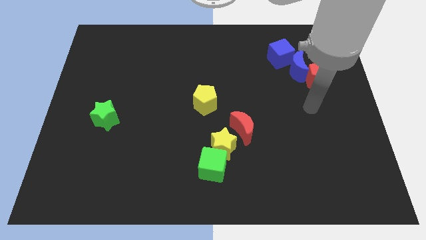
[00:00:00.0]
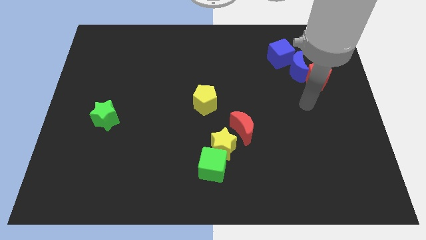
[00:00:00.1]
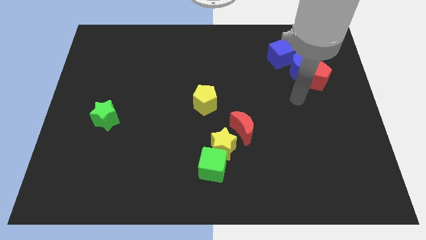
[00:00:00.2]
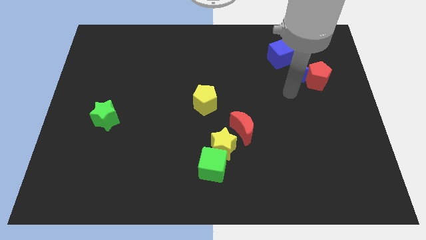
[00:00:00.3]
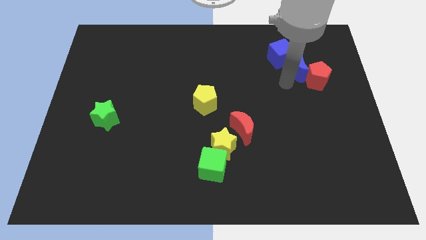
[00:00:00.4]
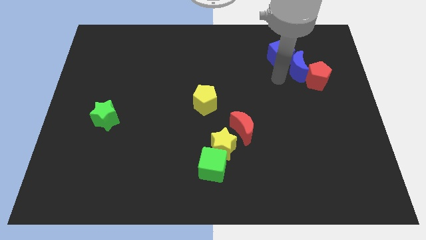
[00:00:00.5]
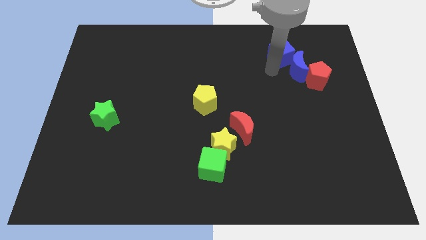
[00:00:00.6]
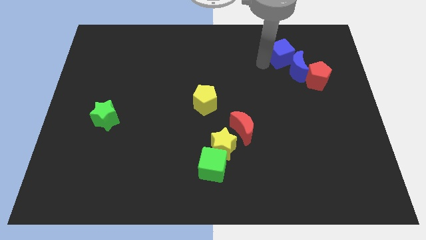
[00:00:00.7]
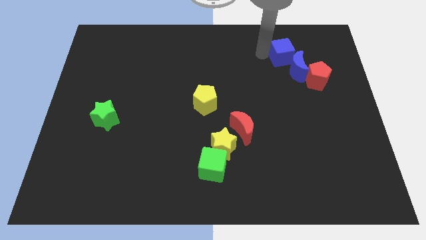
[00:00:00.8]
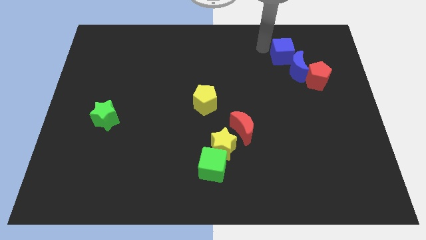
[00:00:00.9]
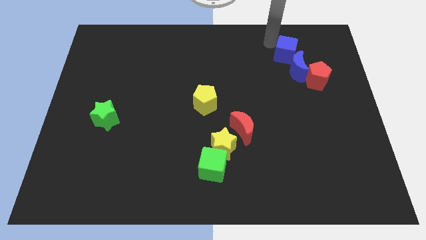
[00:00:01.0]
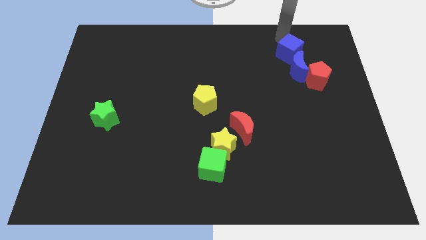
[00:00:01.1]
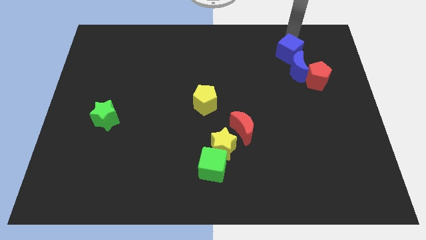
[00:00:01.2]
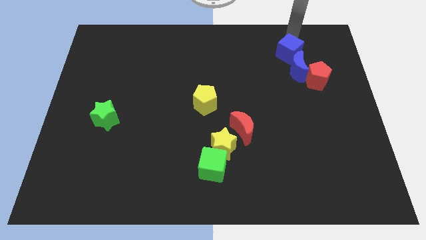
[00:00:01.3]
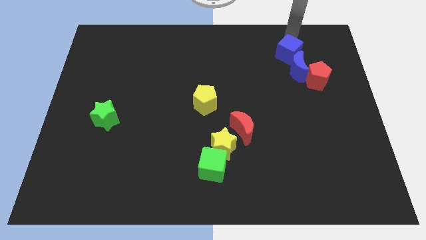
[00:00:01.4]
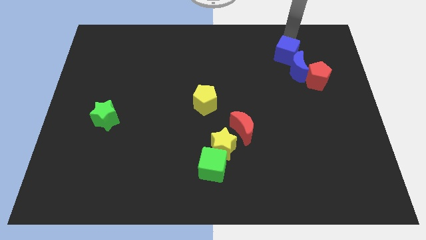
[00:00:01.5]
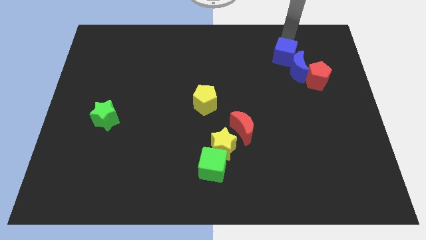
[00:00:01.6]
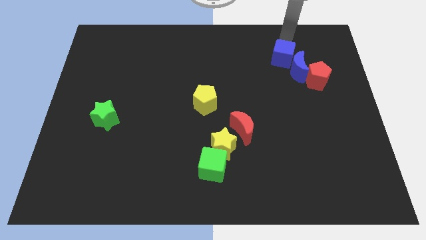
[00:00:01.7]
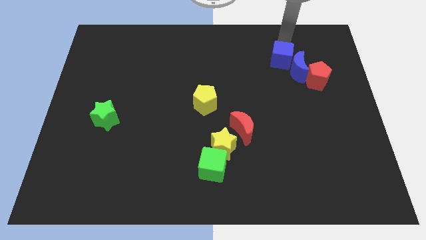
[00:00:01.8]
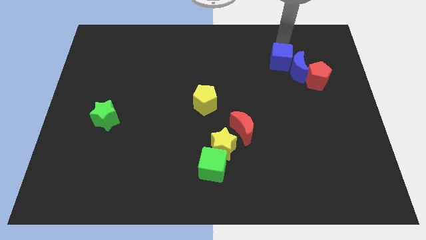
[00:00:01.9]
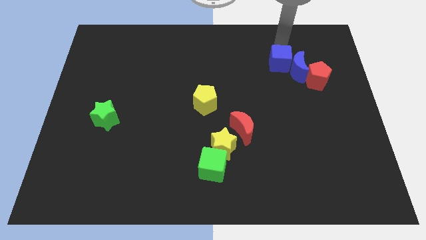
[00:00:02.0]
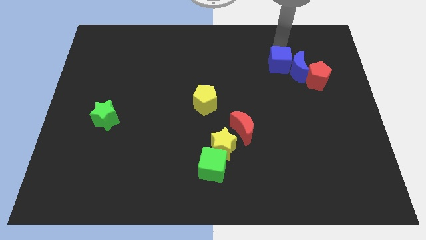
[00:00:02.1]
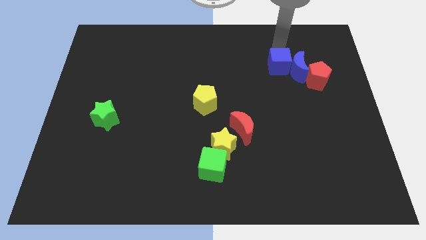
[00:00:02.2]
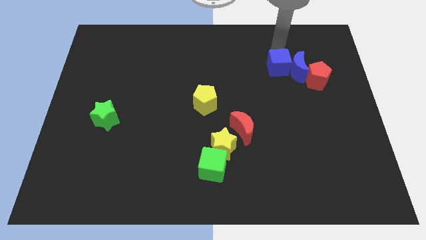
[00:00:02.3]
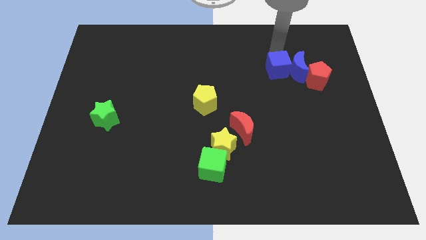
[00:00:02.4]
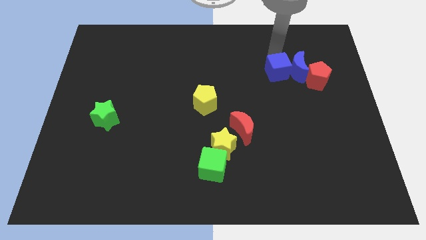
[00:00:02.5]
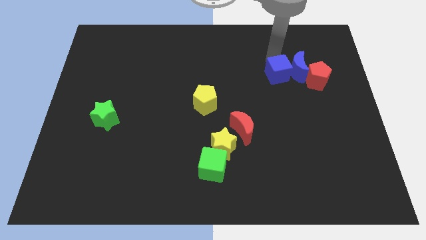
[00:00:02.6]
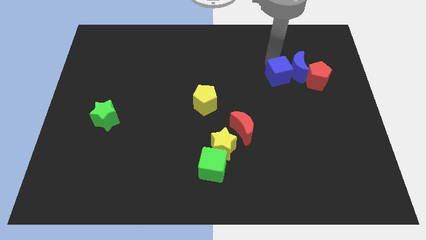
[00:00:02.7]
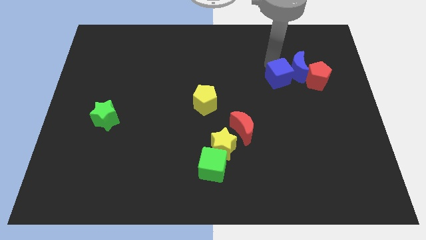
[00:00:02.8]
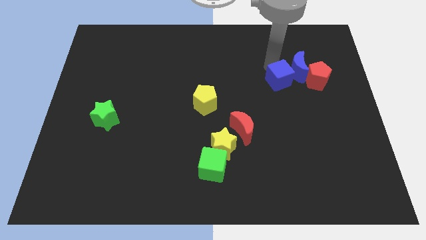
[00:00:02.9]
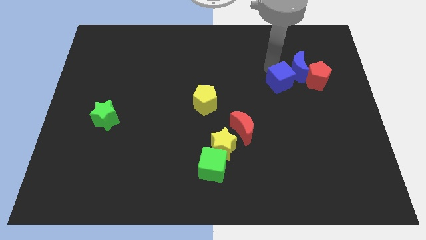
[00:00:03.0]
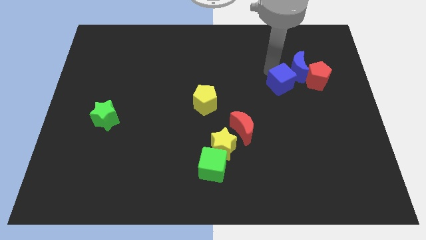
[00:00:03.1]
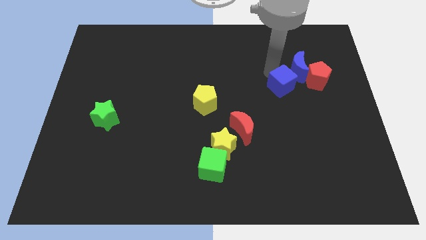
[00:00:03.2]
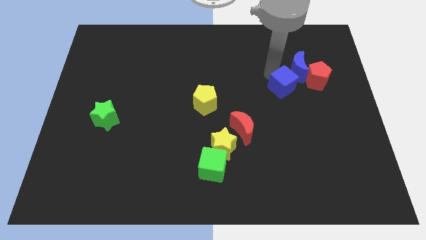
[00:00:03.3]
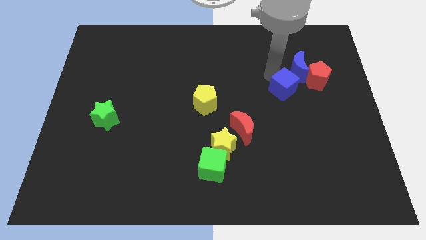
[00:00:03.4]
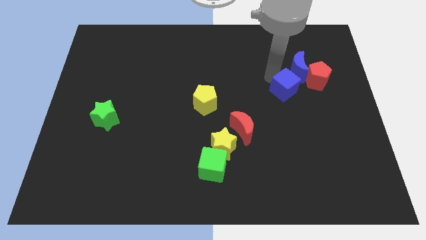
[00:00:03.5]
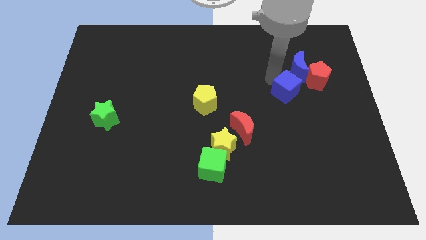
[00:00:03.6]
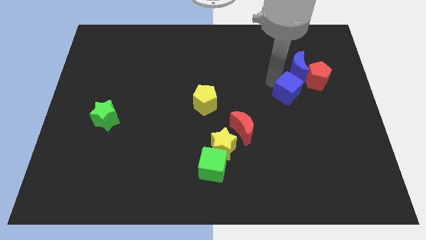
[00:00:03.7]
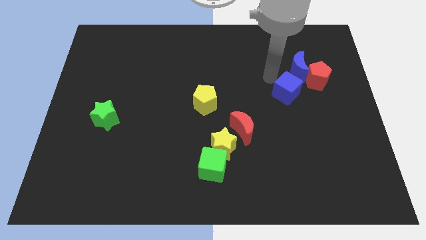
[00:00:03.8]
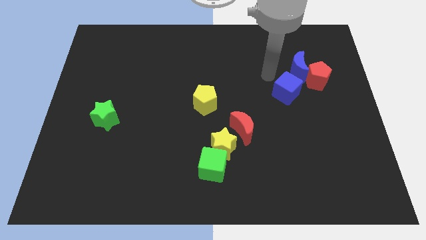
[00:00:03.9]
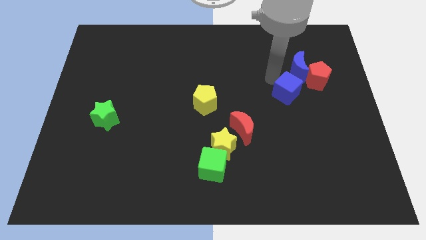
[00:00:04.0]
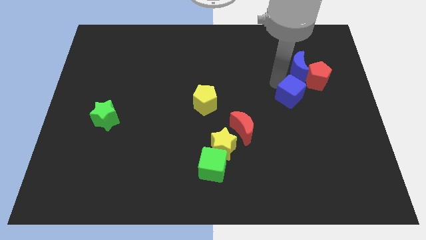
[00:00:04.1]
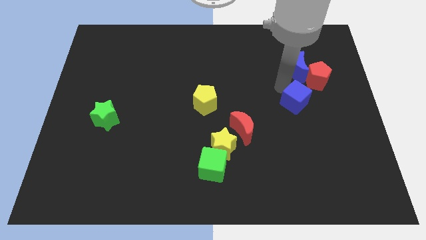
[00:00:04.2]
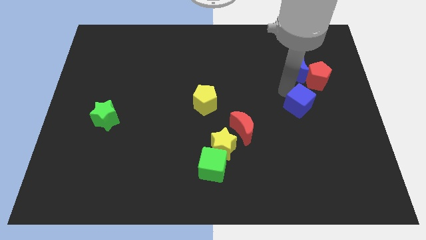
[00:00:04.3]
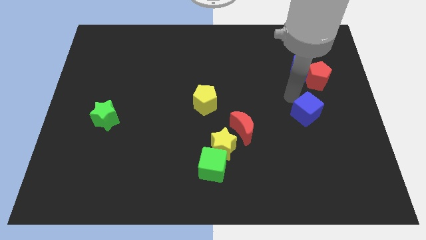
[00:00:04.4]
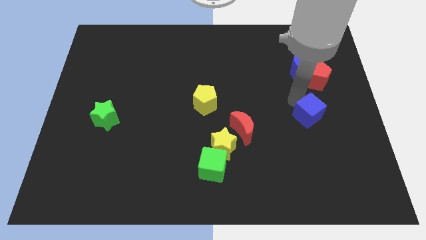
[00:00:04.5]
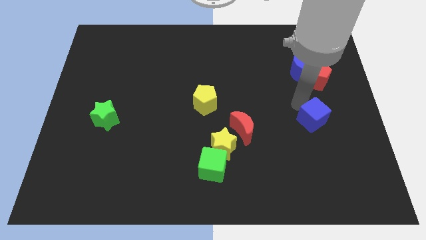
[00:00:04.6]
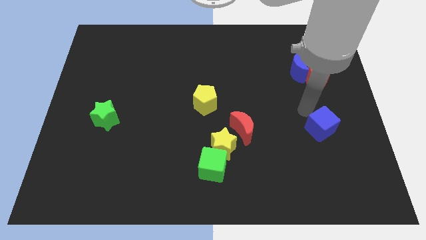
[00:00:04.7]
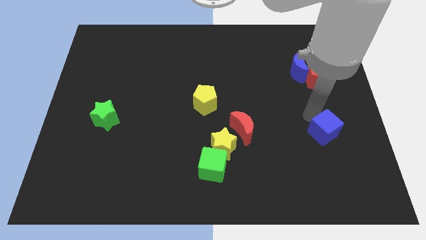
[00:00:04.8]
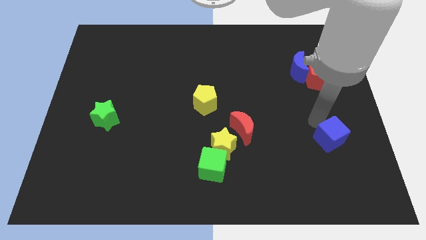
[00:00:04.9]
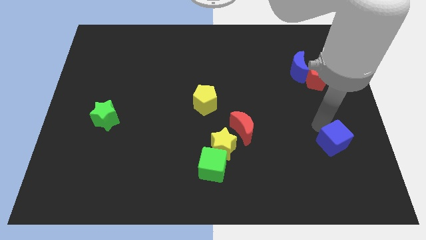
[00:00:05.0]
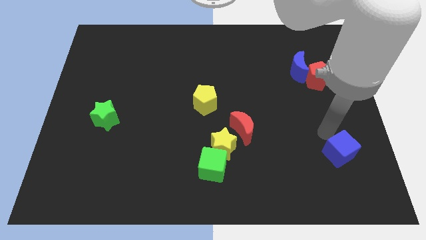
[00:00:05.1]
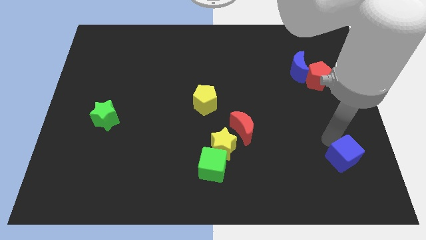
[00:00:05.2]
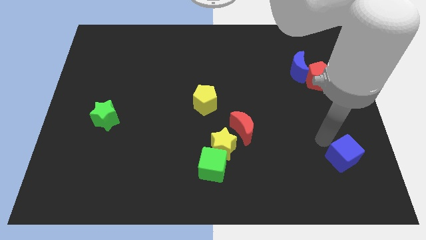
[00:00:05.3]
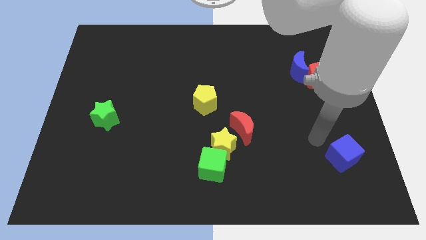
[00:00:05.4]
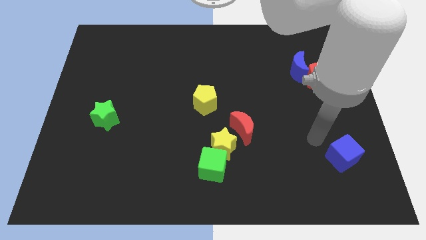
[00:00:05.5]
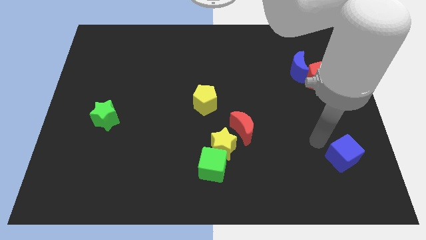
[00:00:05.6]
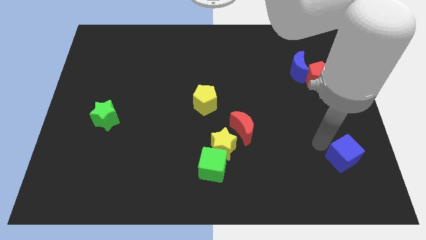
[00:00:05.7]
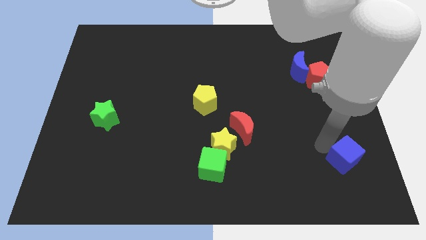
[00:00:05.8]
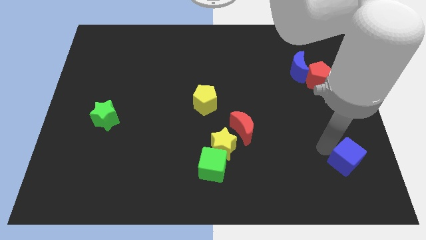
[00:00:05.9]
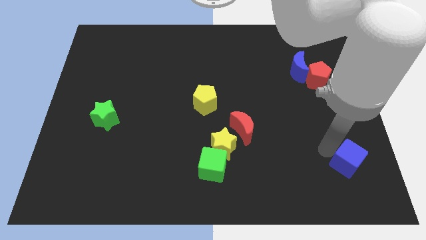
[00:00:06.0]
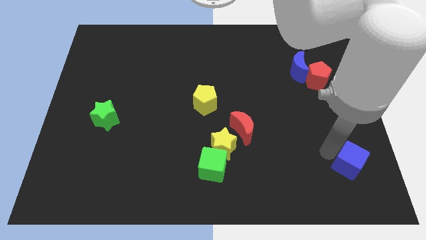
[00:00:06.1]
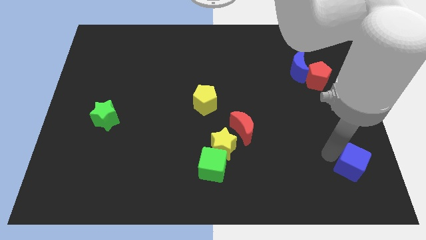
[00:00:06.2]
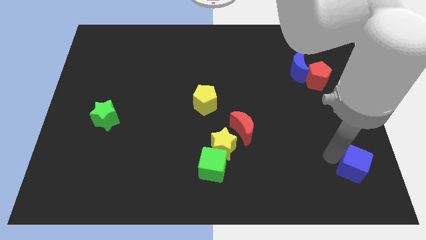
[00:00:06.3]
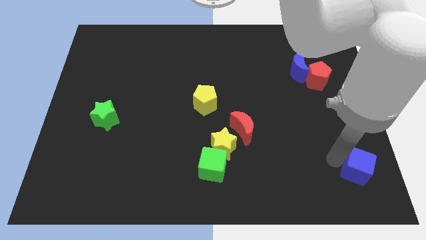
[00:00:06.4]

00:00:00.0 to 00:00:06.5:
move the blue cube to the bottom right corner

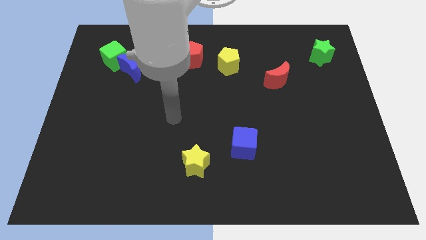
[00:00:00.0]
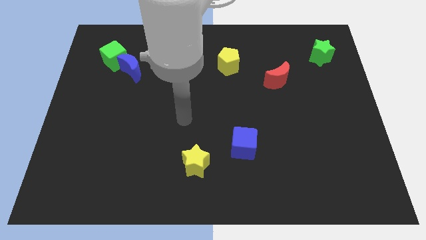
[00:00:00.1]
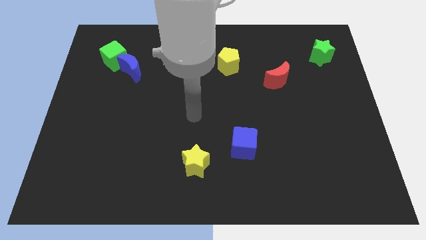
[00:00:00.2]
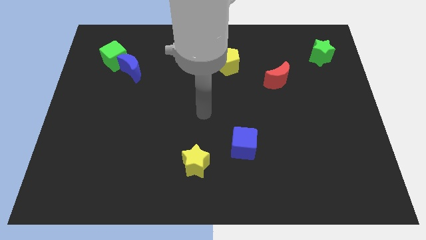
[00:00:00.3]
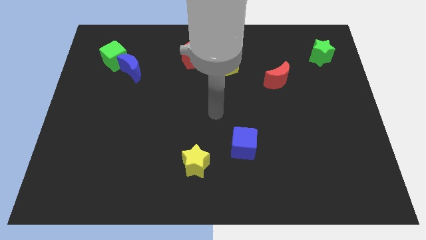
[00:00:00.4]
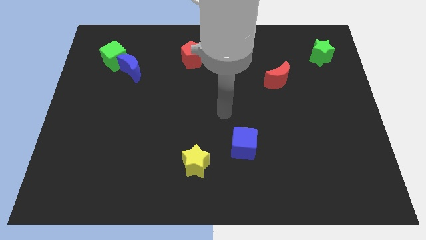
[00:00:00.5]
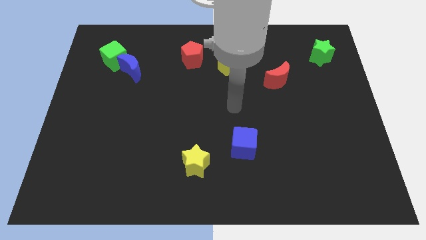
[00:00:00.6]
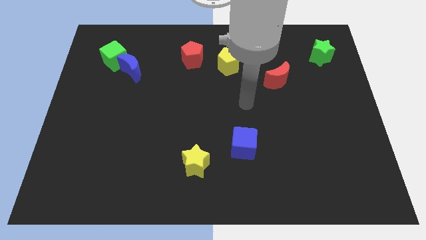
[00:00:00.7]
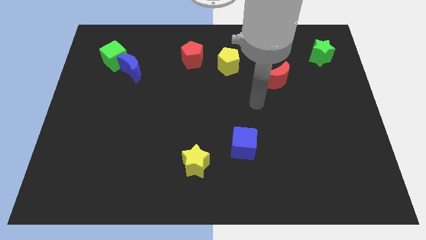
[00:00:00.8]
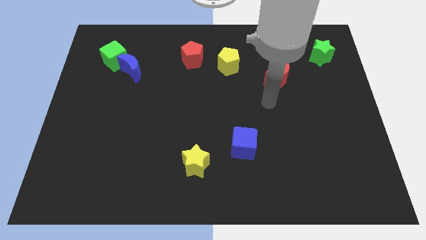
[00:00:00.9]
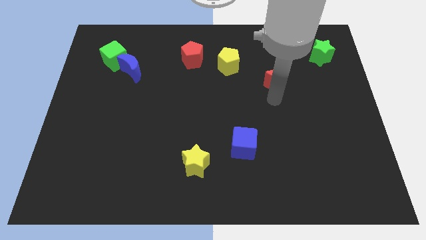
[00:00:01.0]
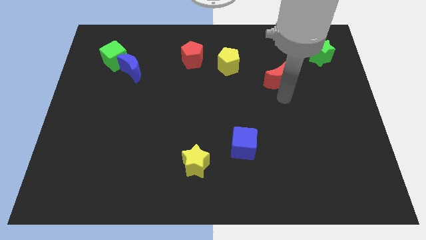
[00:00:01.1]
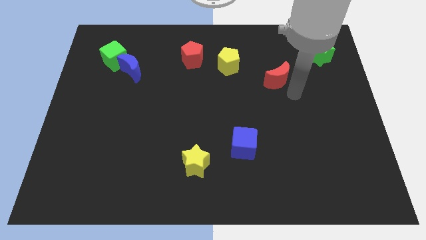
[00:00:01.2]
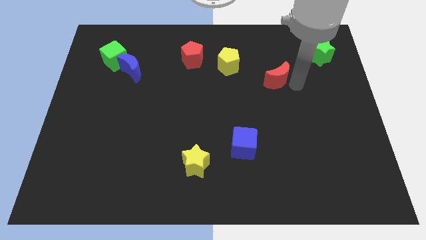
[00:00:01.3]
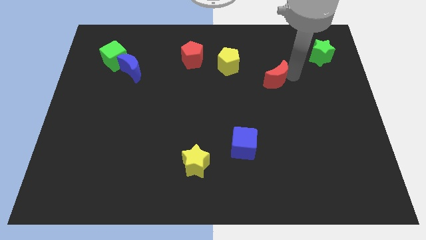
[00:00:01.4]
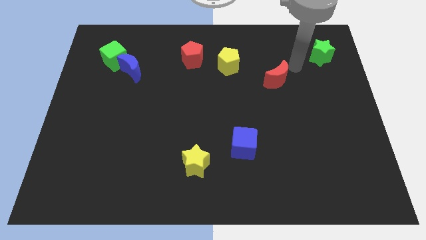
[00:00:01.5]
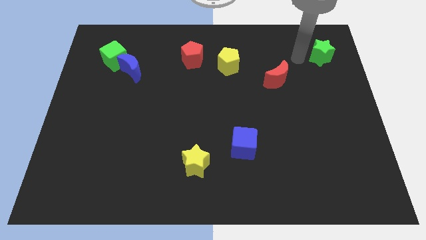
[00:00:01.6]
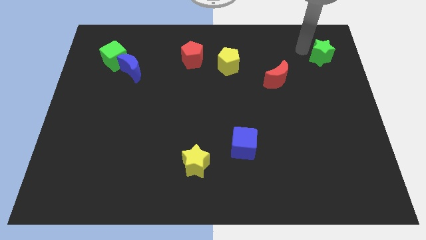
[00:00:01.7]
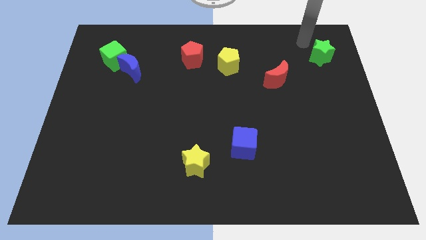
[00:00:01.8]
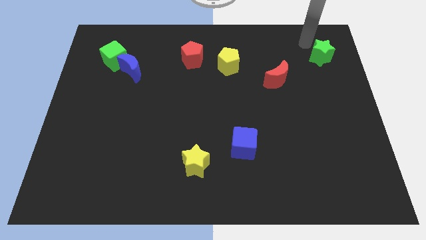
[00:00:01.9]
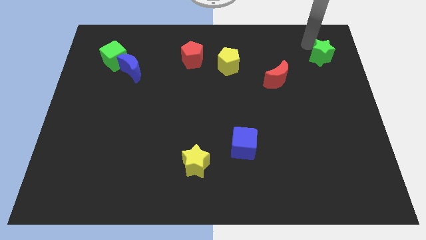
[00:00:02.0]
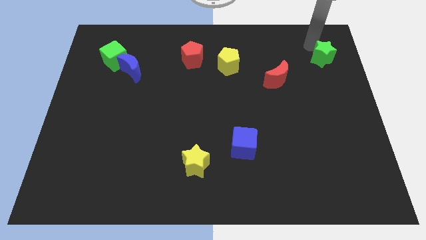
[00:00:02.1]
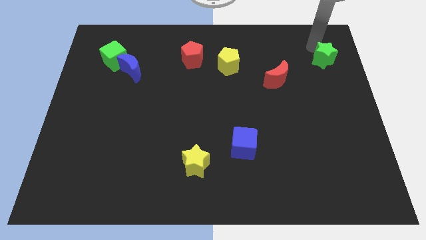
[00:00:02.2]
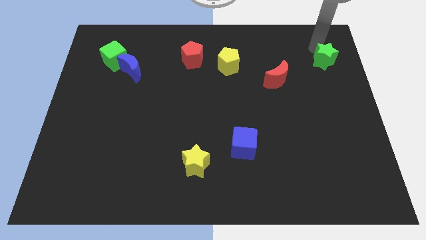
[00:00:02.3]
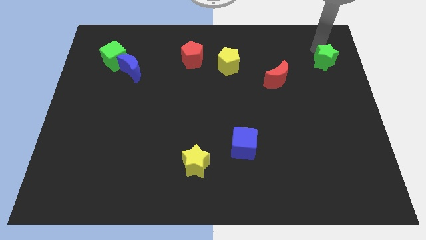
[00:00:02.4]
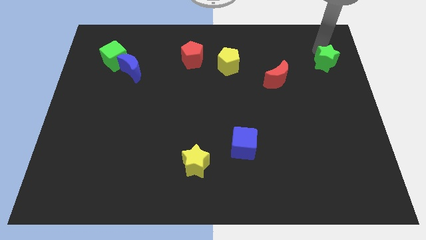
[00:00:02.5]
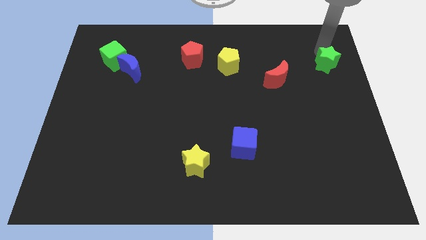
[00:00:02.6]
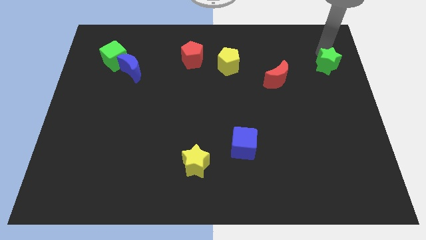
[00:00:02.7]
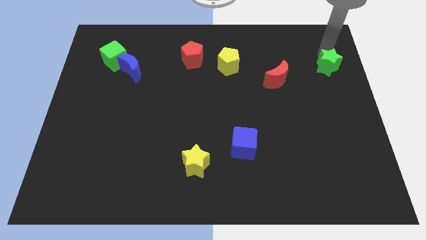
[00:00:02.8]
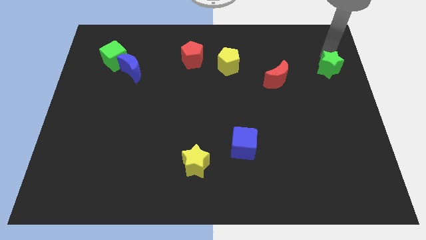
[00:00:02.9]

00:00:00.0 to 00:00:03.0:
push the green star to the right side of the board
